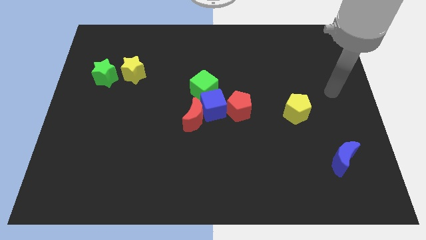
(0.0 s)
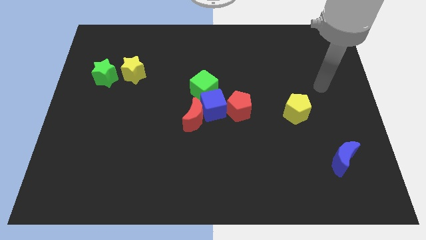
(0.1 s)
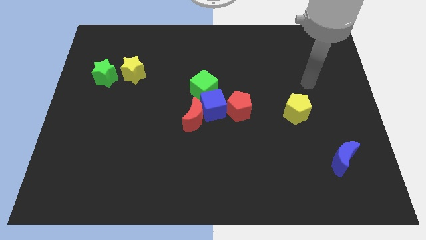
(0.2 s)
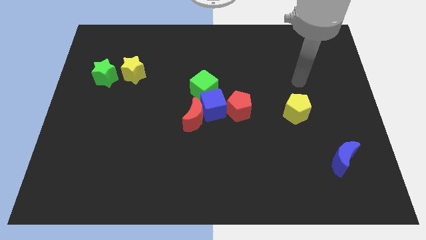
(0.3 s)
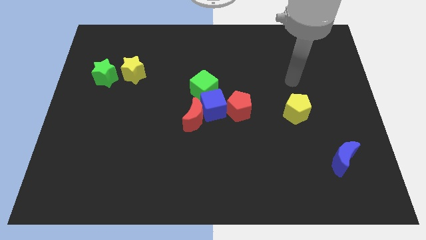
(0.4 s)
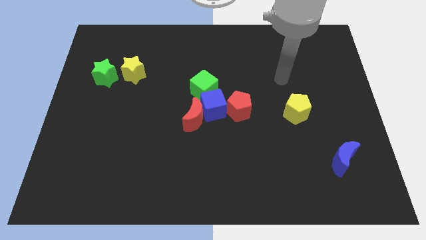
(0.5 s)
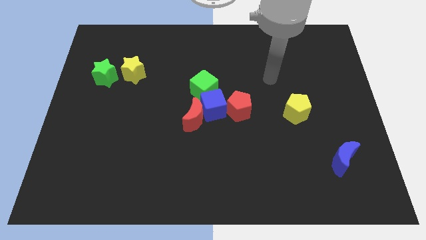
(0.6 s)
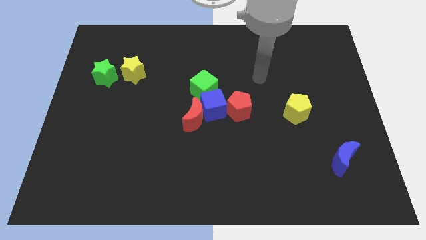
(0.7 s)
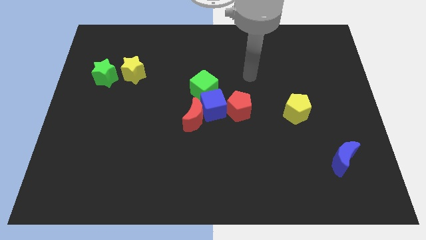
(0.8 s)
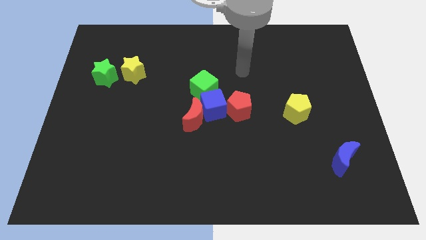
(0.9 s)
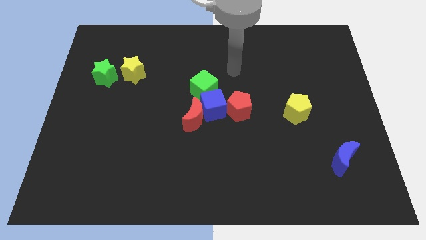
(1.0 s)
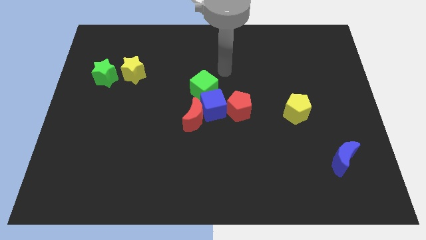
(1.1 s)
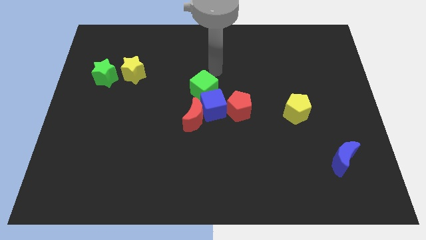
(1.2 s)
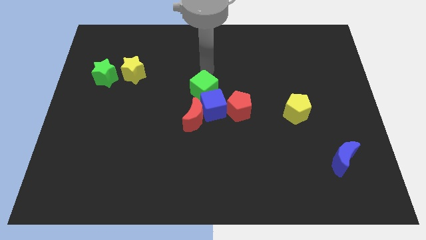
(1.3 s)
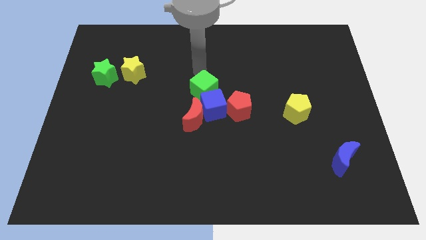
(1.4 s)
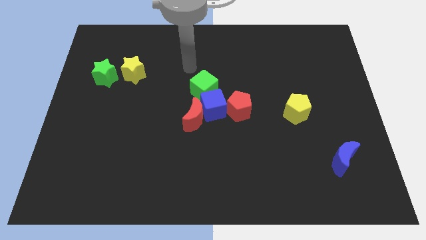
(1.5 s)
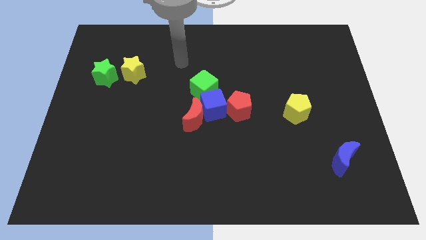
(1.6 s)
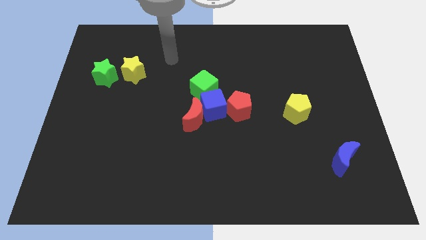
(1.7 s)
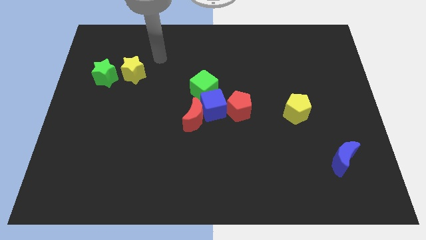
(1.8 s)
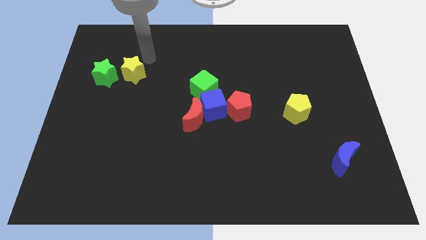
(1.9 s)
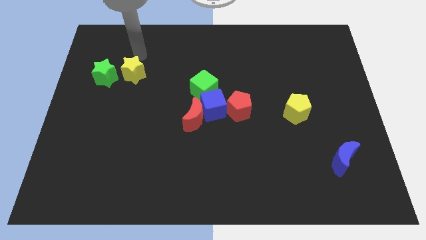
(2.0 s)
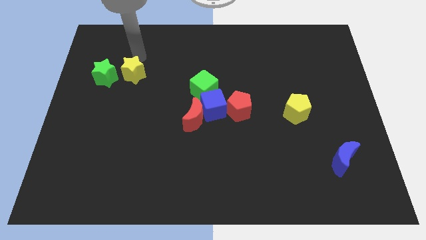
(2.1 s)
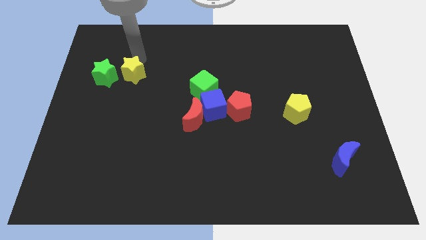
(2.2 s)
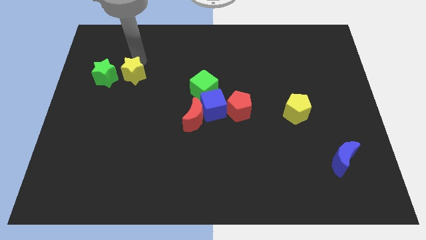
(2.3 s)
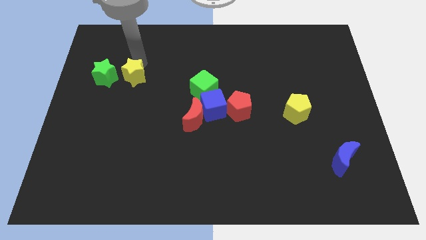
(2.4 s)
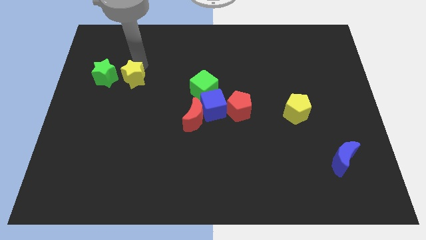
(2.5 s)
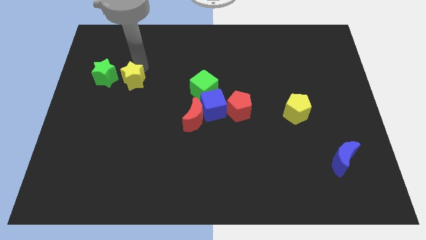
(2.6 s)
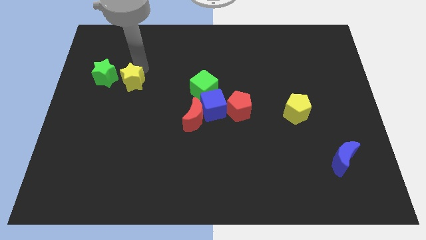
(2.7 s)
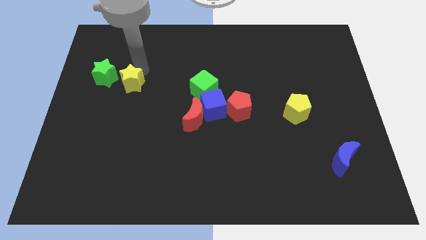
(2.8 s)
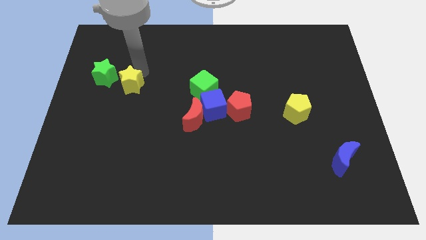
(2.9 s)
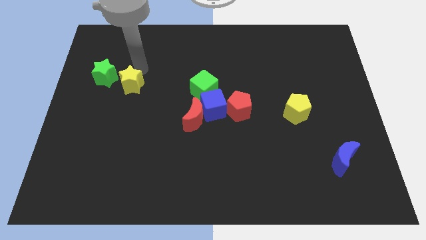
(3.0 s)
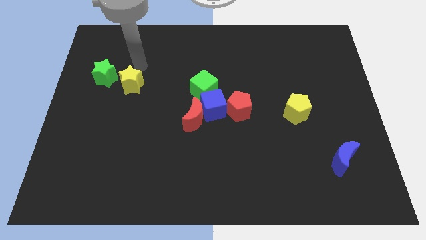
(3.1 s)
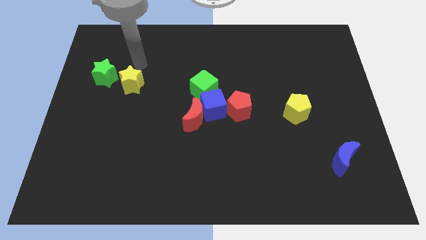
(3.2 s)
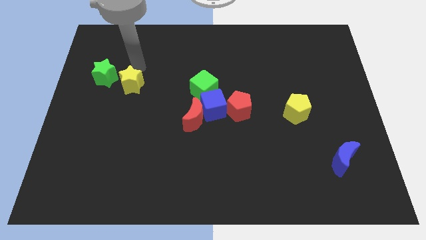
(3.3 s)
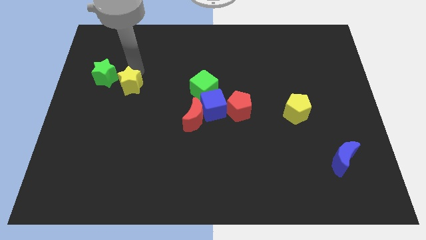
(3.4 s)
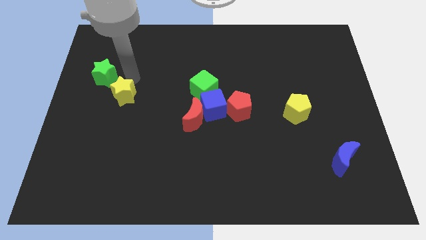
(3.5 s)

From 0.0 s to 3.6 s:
slide the yellow star a bit downwards

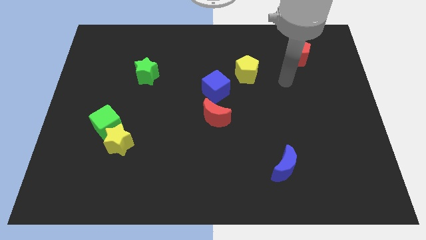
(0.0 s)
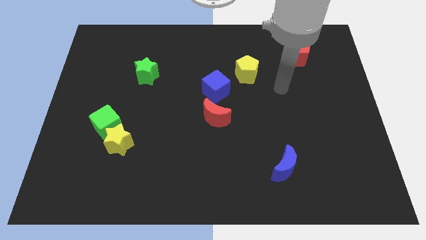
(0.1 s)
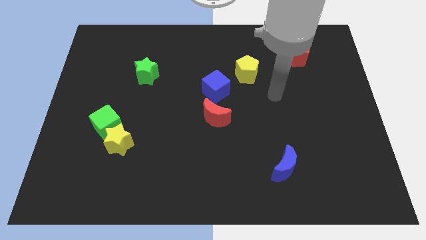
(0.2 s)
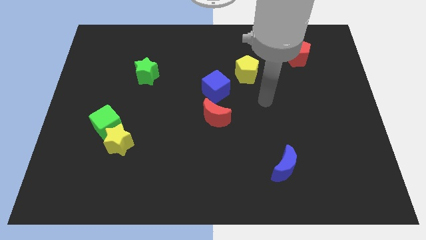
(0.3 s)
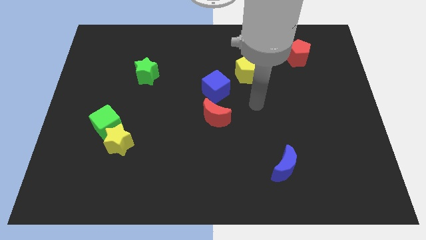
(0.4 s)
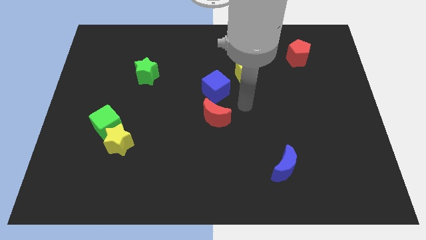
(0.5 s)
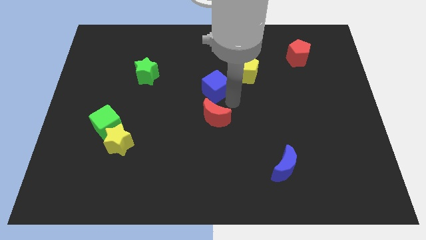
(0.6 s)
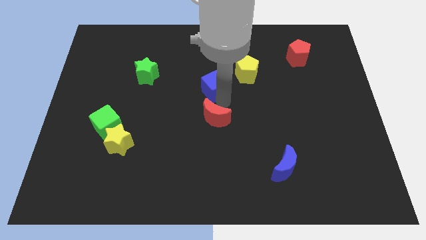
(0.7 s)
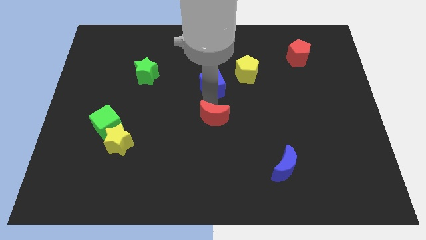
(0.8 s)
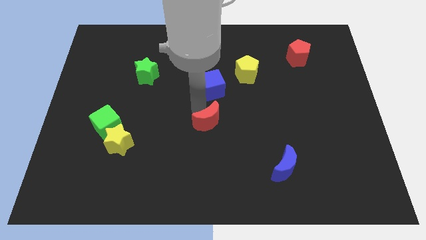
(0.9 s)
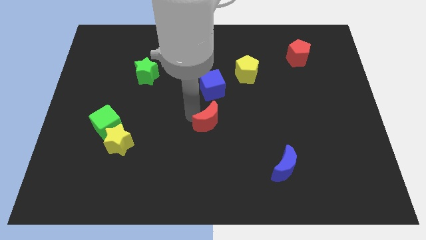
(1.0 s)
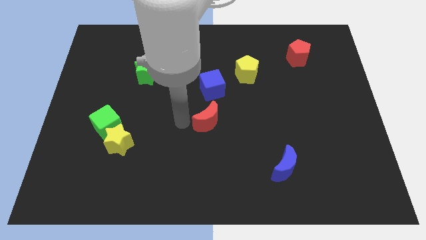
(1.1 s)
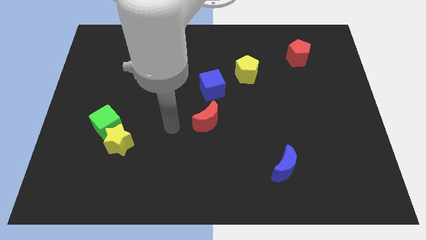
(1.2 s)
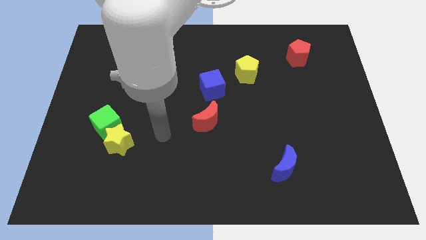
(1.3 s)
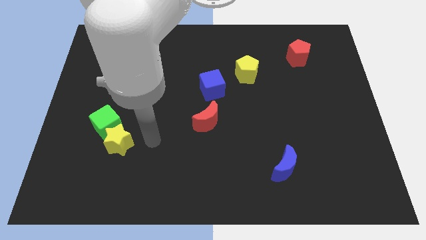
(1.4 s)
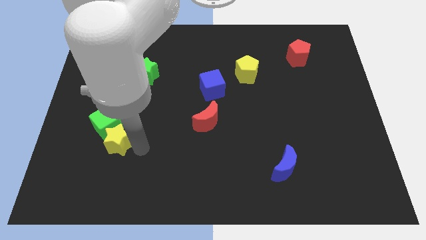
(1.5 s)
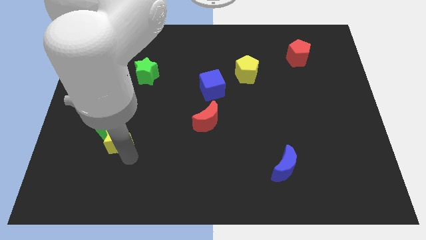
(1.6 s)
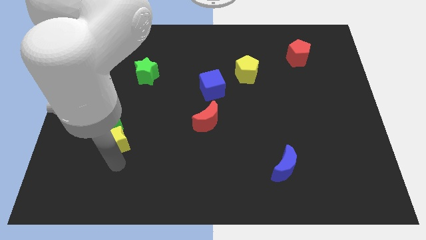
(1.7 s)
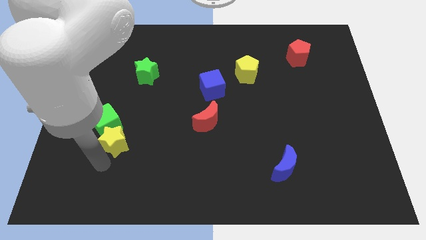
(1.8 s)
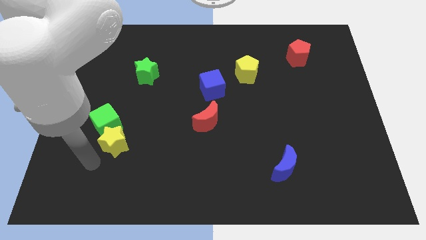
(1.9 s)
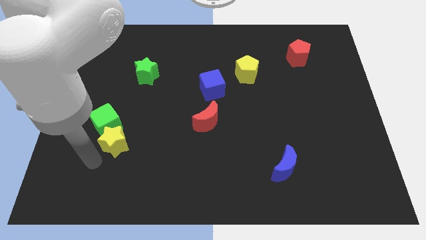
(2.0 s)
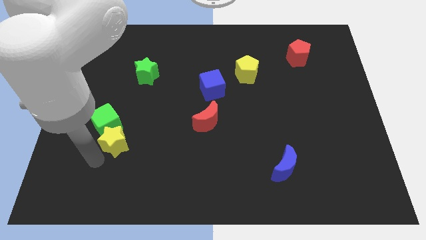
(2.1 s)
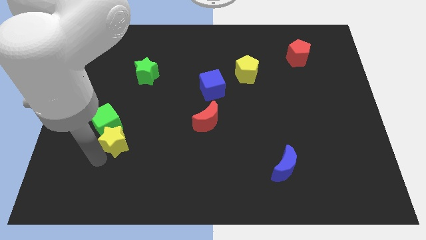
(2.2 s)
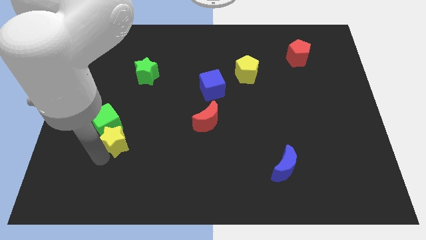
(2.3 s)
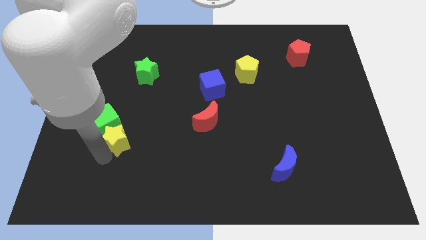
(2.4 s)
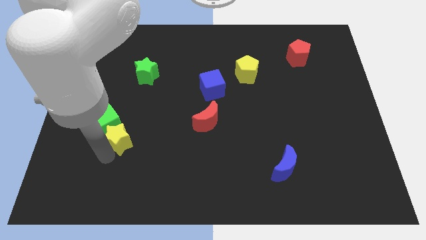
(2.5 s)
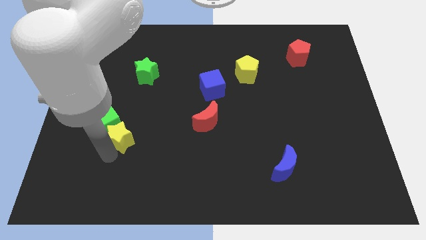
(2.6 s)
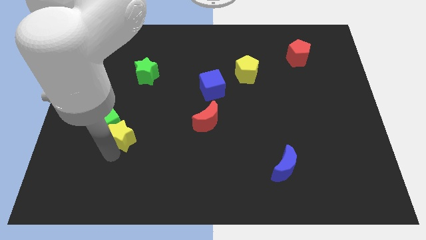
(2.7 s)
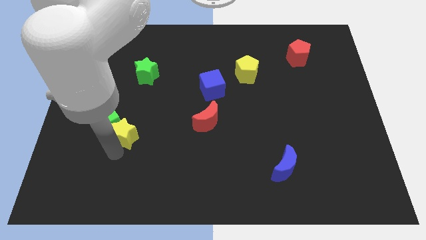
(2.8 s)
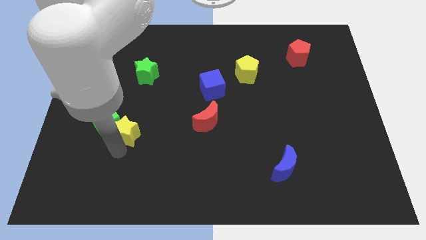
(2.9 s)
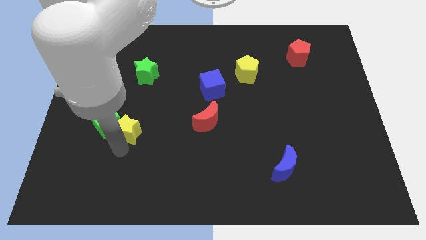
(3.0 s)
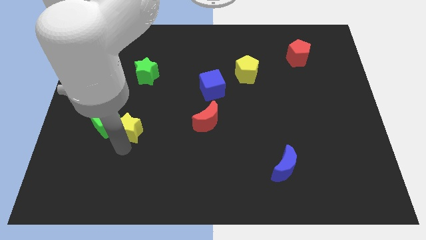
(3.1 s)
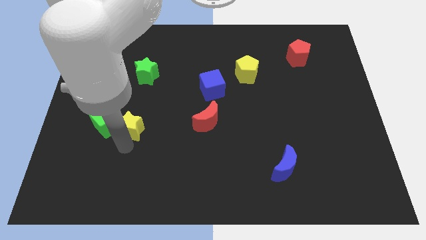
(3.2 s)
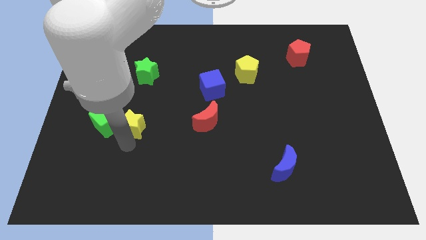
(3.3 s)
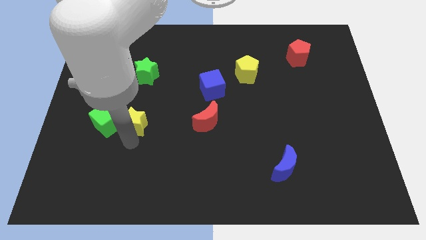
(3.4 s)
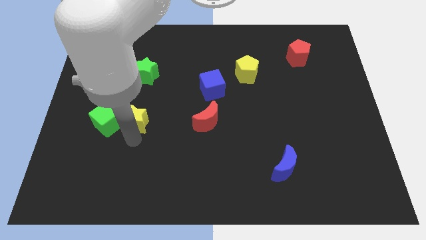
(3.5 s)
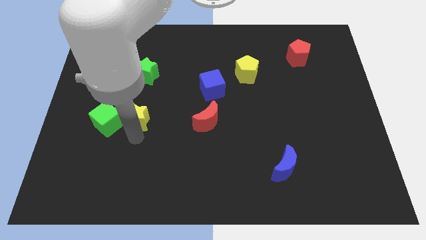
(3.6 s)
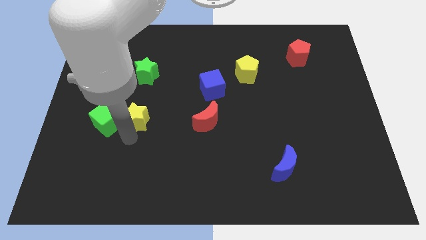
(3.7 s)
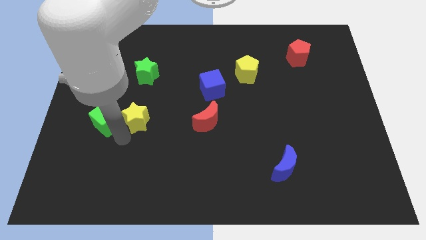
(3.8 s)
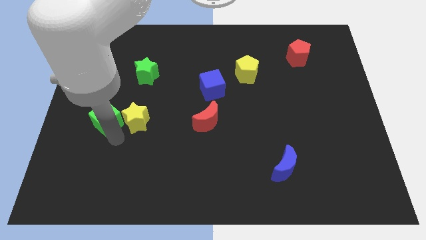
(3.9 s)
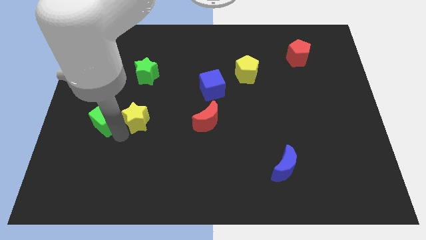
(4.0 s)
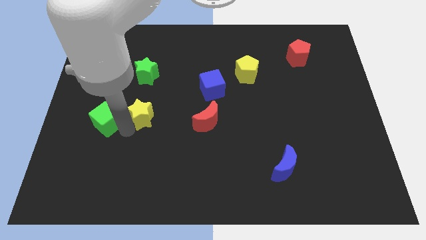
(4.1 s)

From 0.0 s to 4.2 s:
move the yellow star upwards and then to the right slightly
